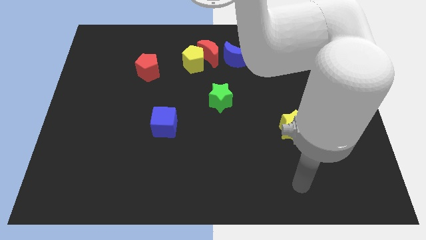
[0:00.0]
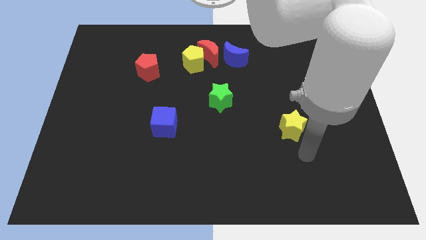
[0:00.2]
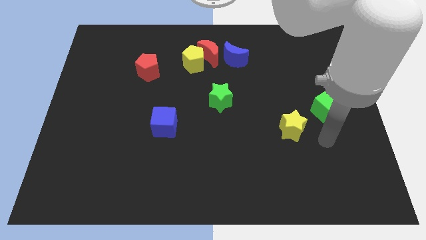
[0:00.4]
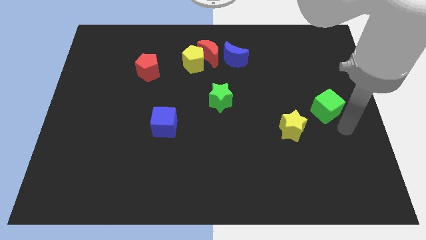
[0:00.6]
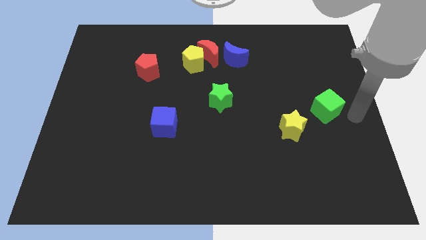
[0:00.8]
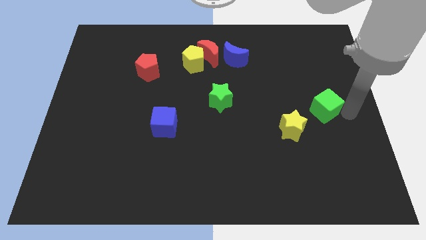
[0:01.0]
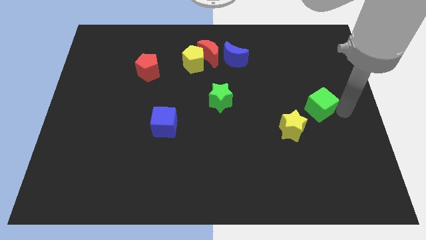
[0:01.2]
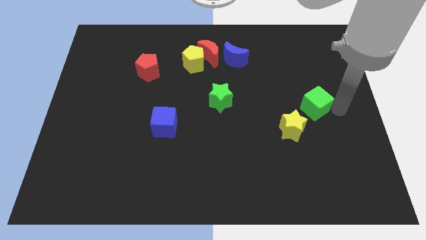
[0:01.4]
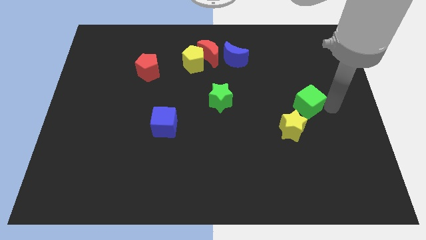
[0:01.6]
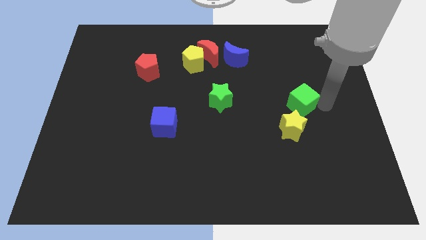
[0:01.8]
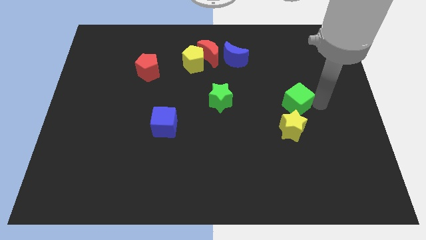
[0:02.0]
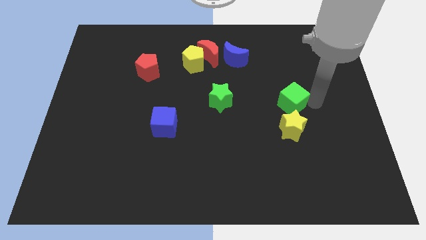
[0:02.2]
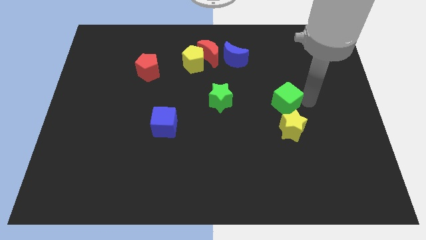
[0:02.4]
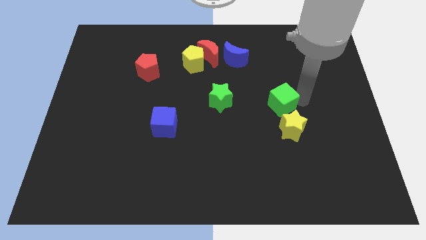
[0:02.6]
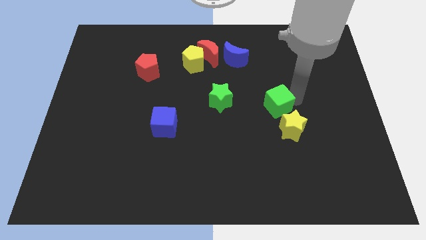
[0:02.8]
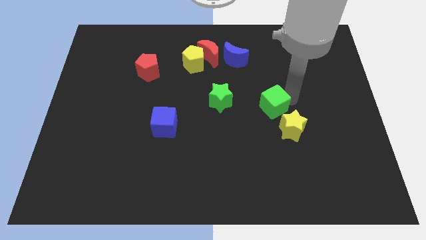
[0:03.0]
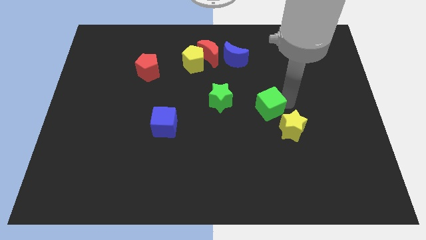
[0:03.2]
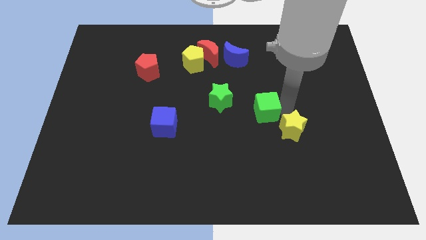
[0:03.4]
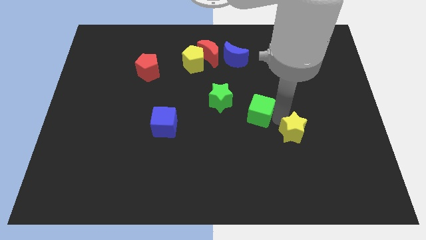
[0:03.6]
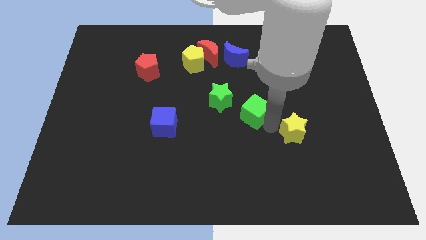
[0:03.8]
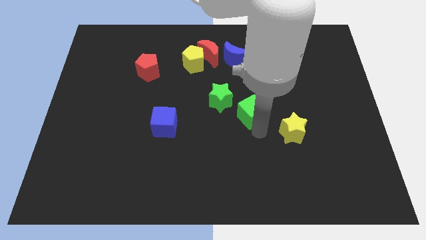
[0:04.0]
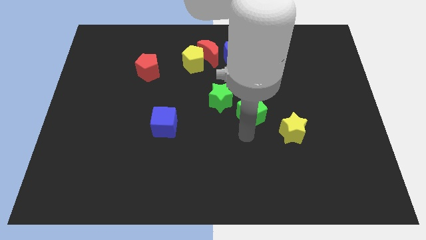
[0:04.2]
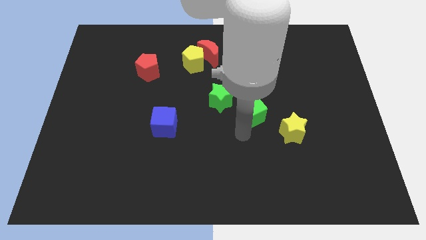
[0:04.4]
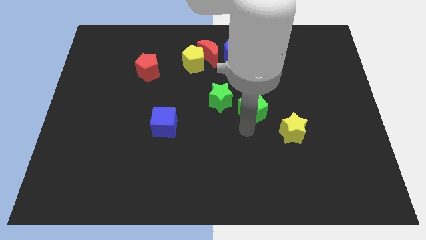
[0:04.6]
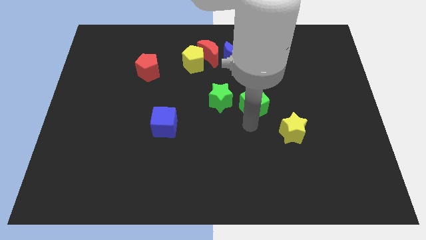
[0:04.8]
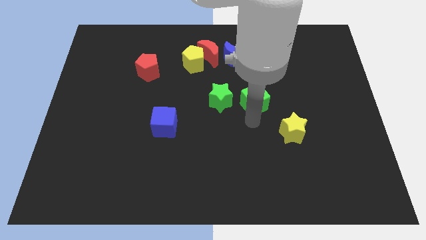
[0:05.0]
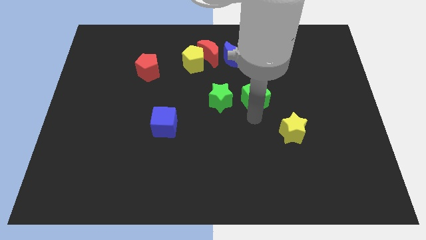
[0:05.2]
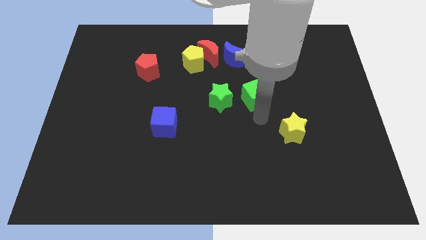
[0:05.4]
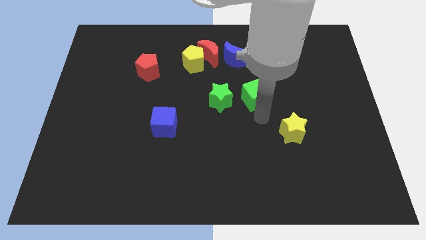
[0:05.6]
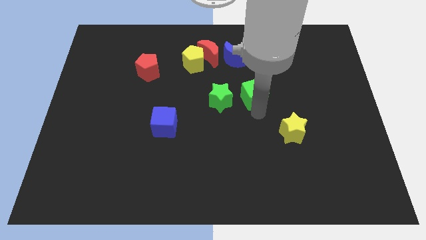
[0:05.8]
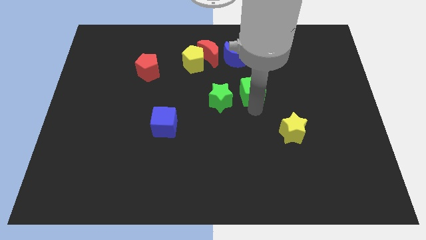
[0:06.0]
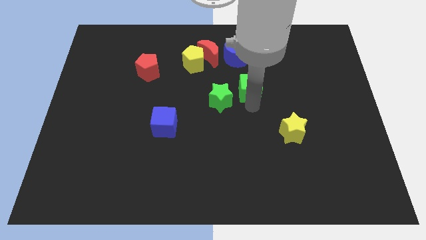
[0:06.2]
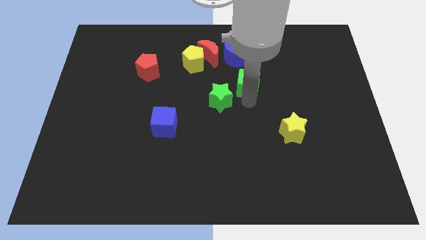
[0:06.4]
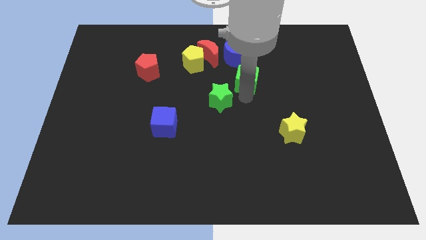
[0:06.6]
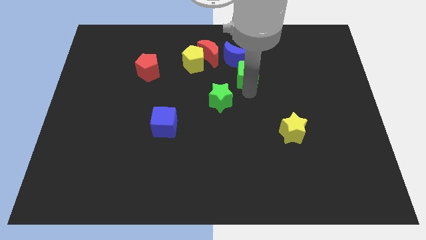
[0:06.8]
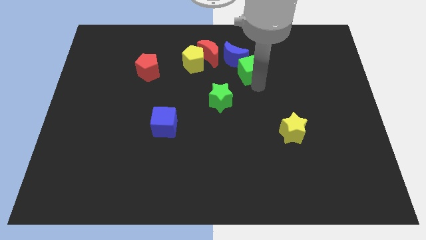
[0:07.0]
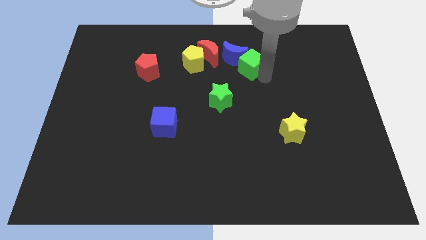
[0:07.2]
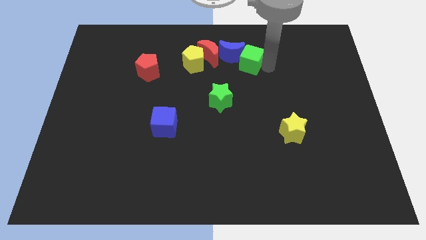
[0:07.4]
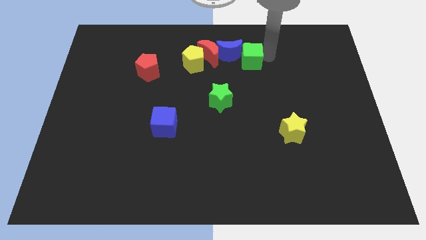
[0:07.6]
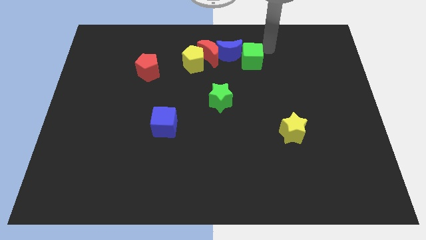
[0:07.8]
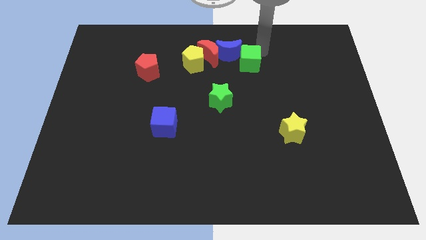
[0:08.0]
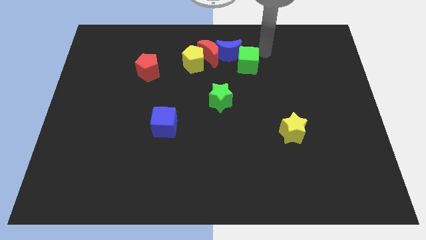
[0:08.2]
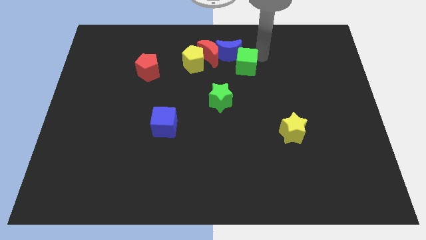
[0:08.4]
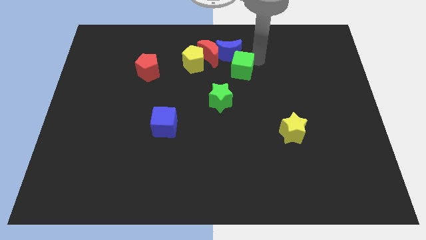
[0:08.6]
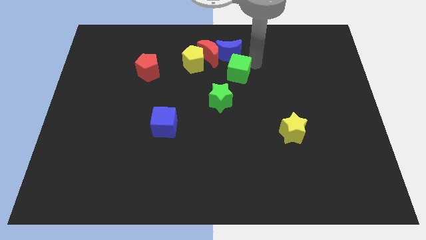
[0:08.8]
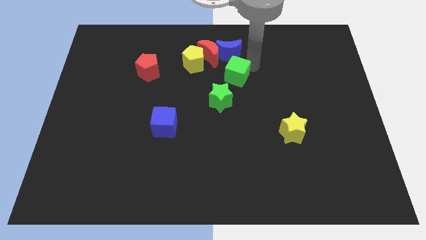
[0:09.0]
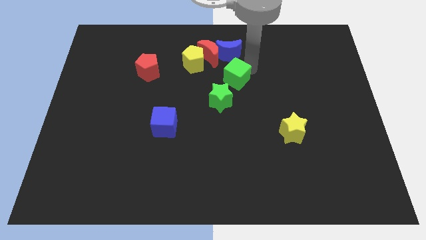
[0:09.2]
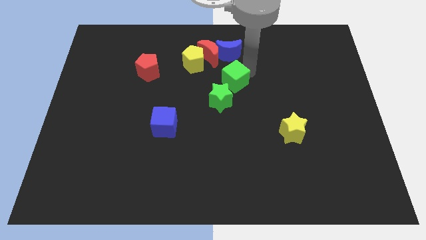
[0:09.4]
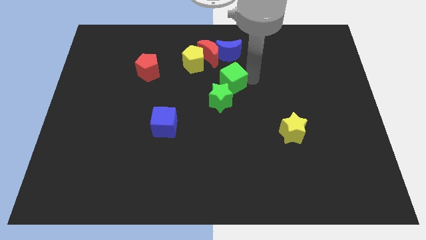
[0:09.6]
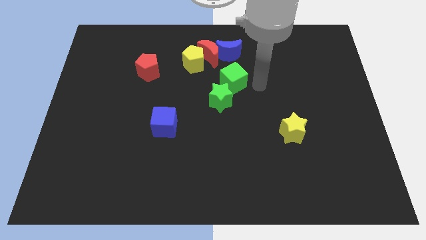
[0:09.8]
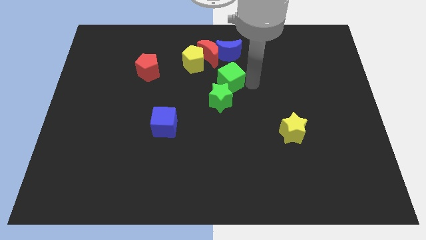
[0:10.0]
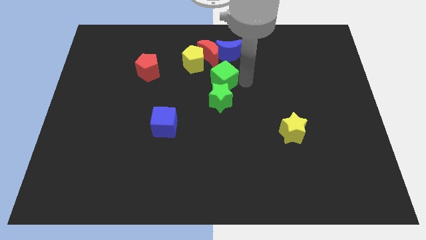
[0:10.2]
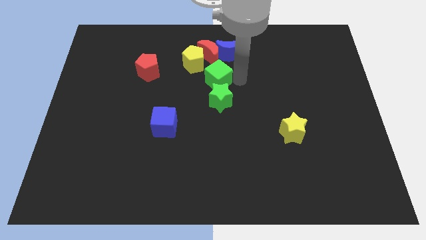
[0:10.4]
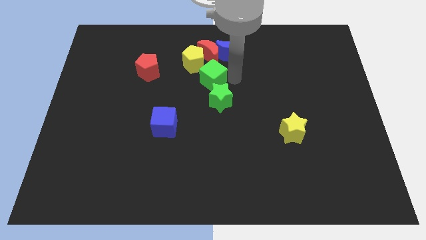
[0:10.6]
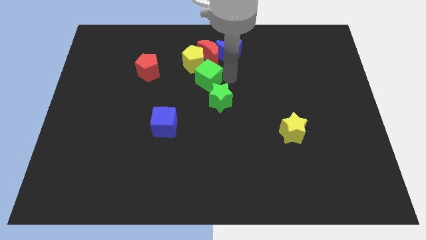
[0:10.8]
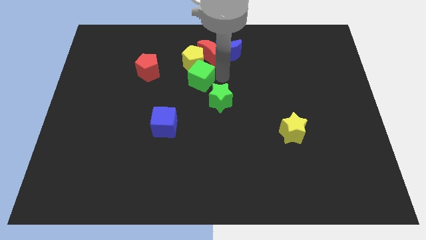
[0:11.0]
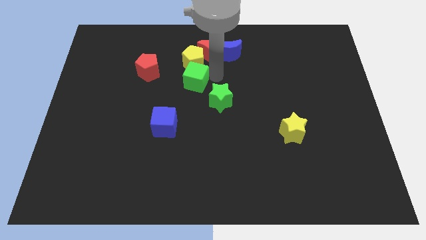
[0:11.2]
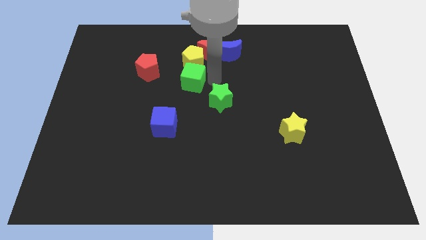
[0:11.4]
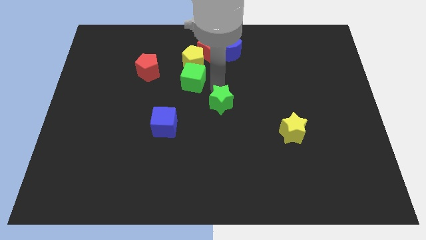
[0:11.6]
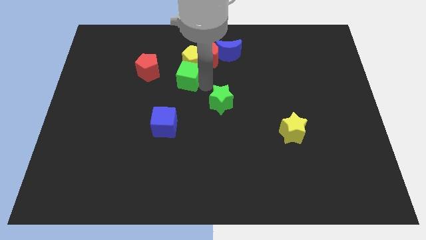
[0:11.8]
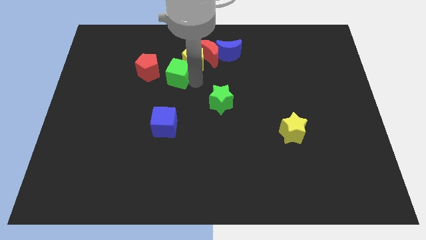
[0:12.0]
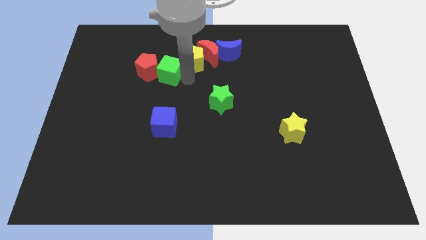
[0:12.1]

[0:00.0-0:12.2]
move the green cube towards the red pentagon

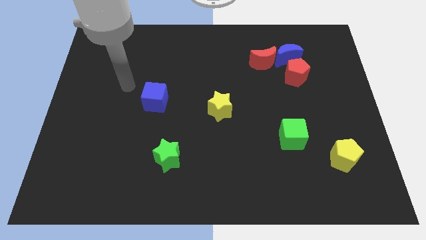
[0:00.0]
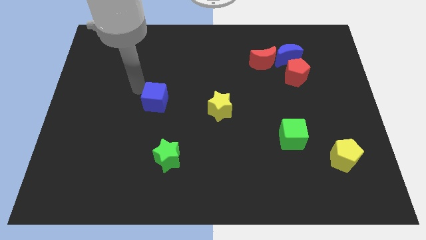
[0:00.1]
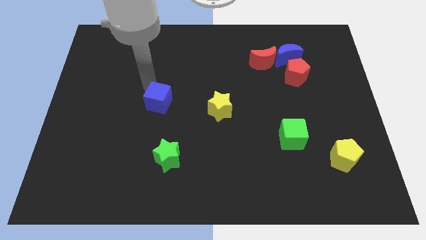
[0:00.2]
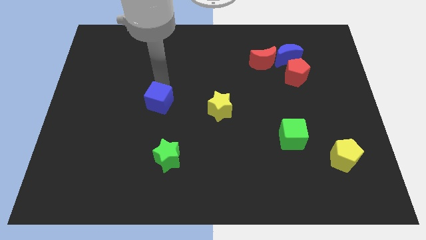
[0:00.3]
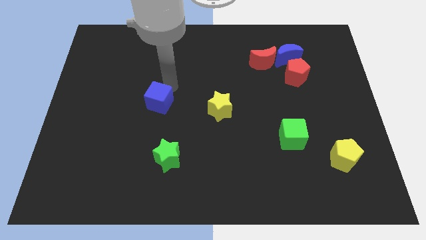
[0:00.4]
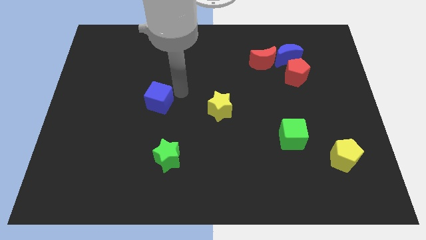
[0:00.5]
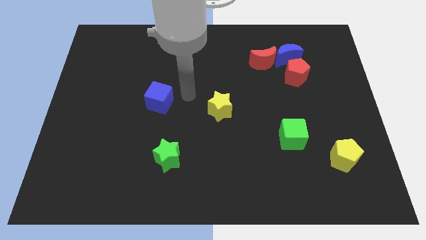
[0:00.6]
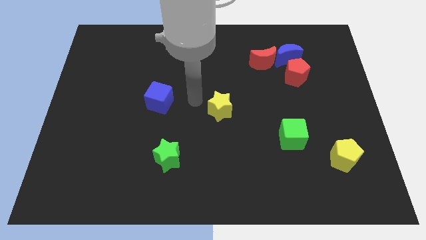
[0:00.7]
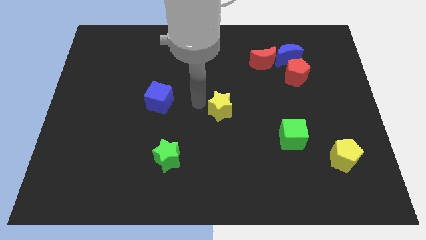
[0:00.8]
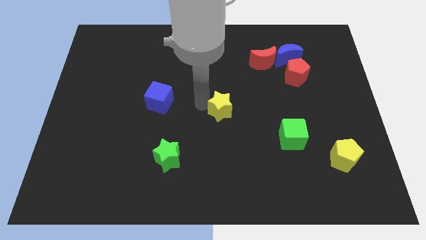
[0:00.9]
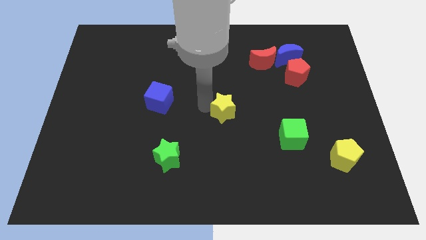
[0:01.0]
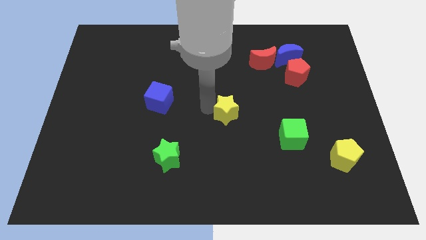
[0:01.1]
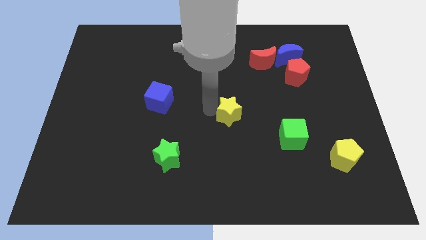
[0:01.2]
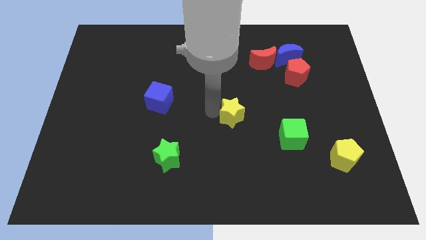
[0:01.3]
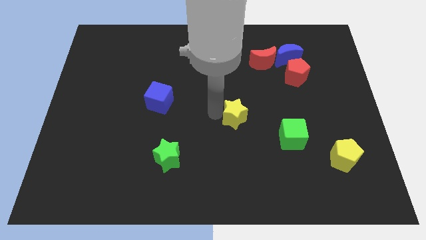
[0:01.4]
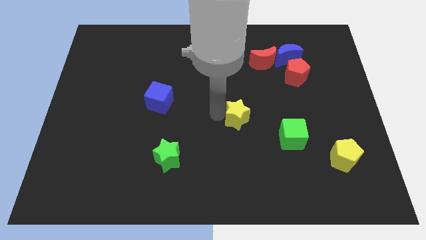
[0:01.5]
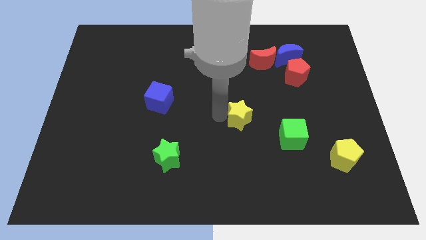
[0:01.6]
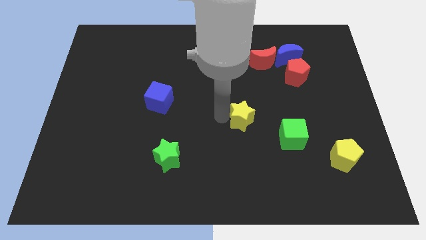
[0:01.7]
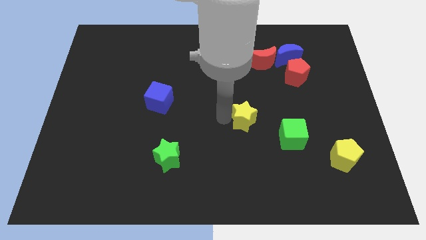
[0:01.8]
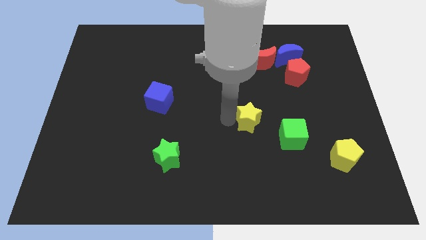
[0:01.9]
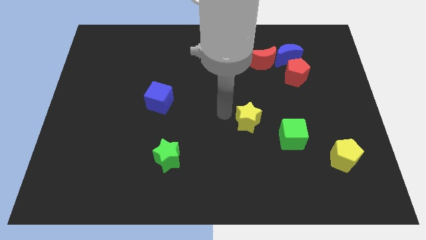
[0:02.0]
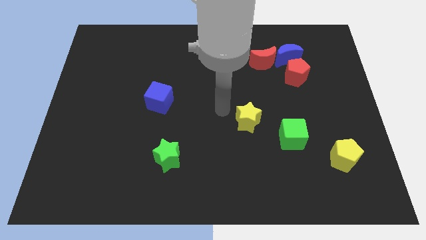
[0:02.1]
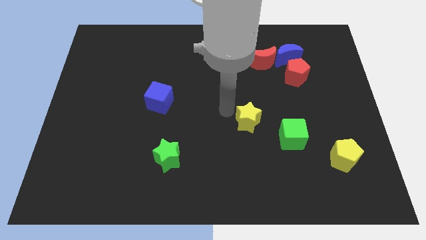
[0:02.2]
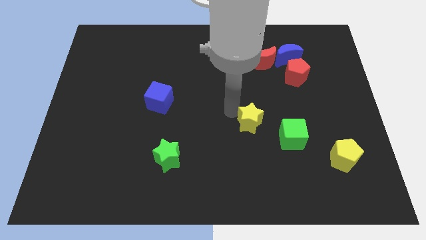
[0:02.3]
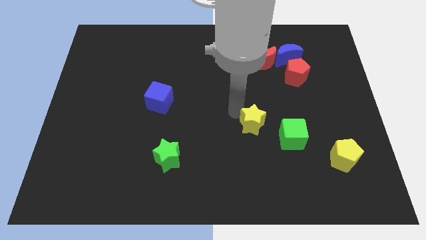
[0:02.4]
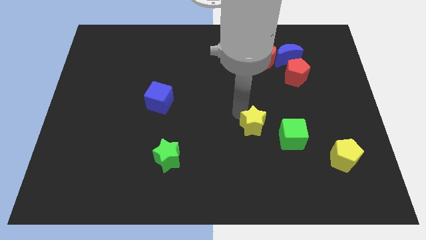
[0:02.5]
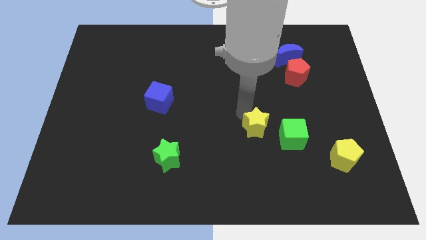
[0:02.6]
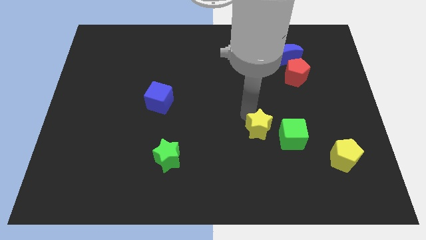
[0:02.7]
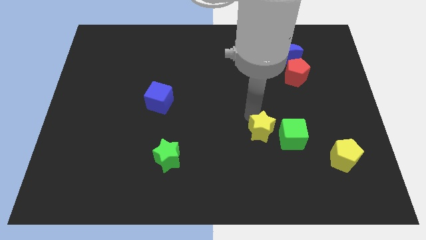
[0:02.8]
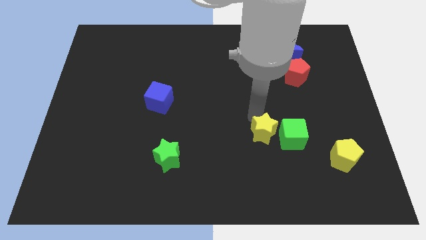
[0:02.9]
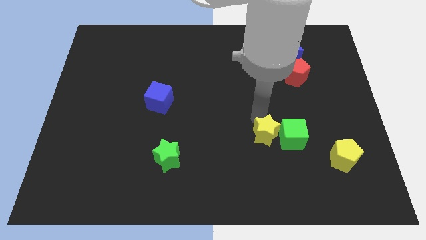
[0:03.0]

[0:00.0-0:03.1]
put the yellow star close to the green cube
